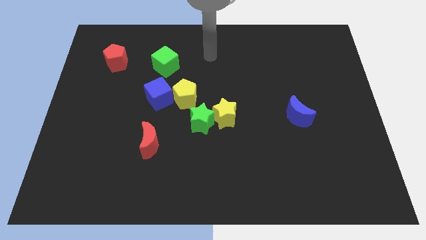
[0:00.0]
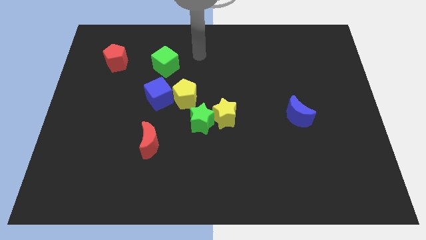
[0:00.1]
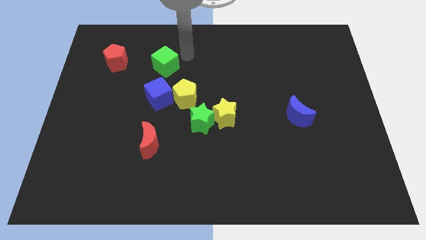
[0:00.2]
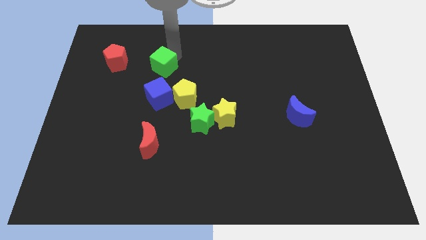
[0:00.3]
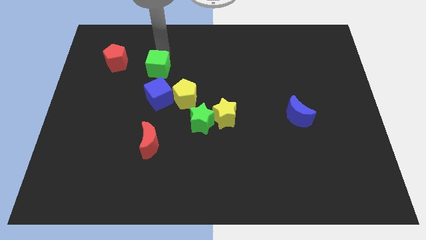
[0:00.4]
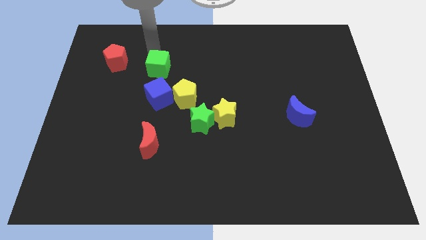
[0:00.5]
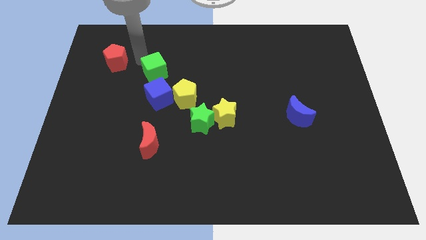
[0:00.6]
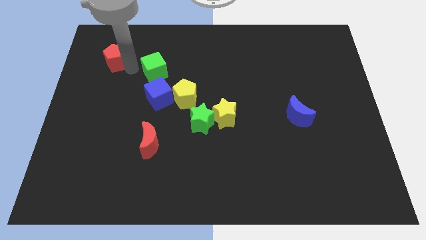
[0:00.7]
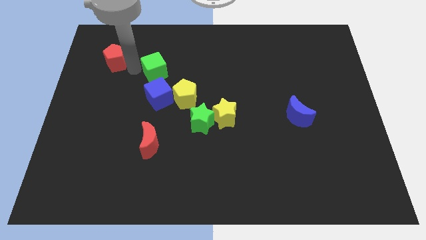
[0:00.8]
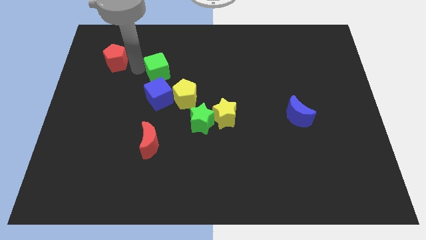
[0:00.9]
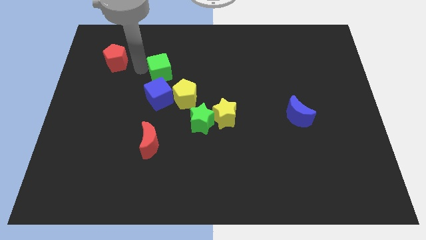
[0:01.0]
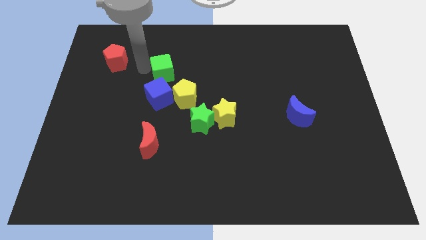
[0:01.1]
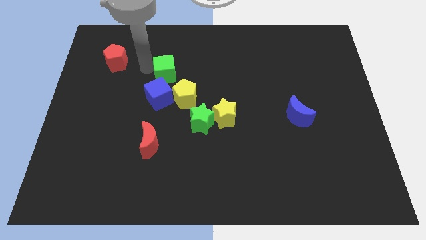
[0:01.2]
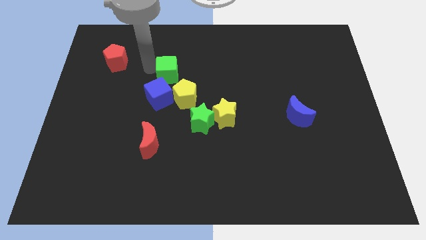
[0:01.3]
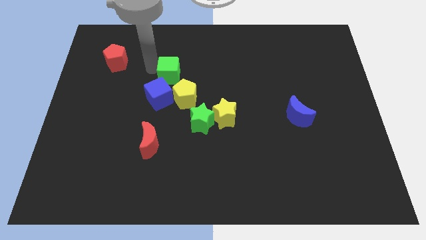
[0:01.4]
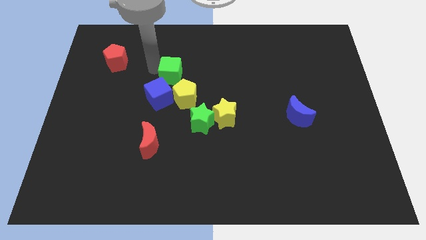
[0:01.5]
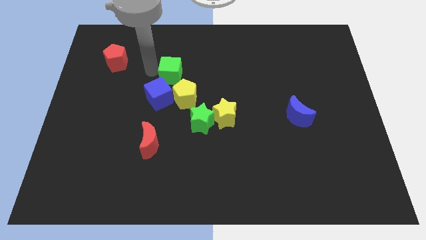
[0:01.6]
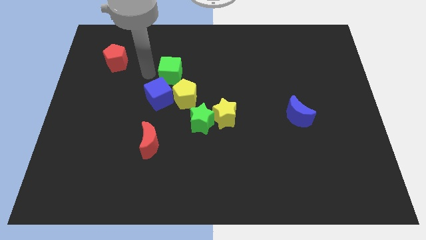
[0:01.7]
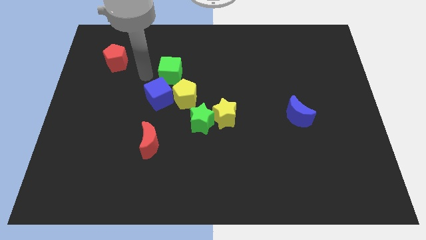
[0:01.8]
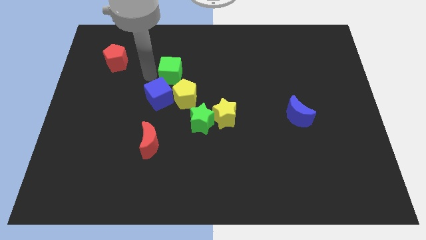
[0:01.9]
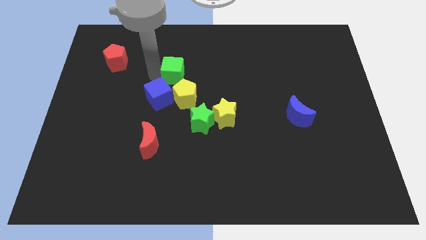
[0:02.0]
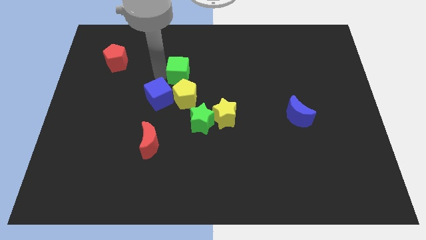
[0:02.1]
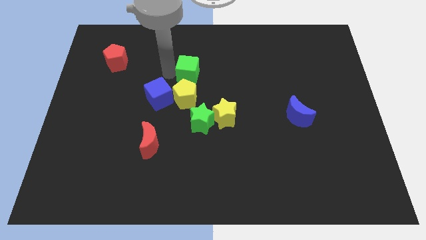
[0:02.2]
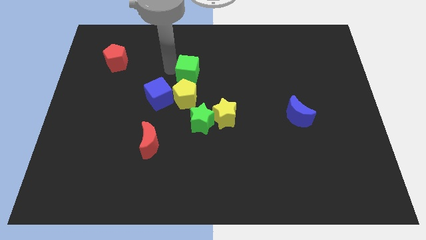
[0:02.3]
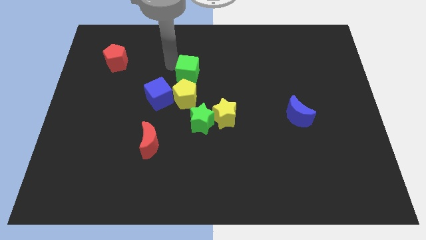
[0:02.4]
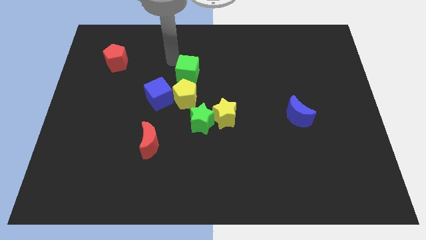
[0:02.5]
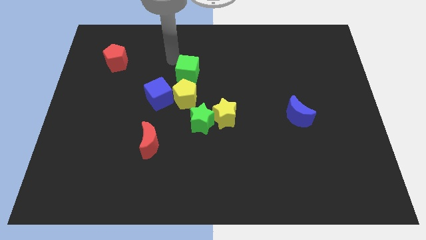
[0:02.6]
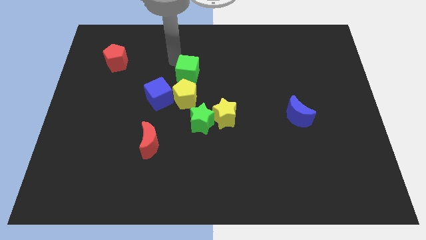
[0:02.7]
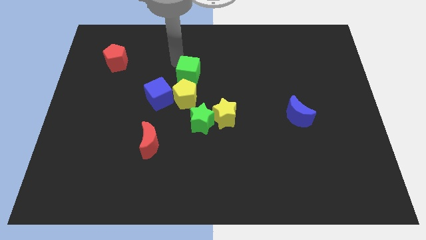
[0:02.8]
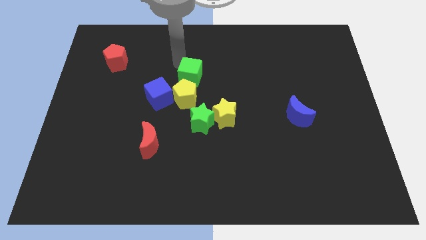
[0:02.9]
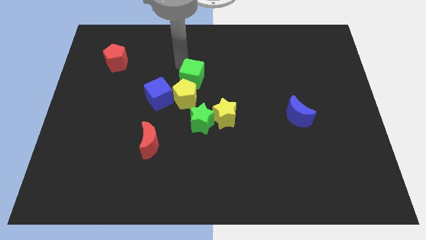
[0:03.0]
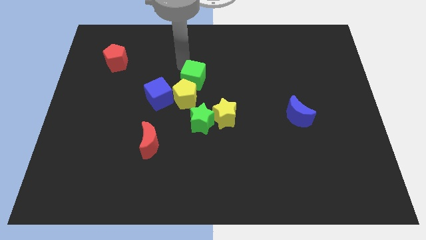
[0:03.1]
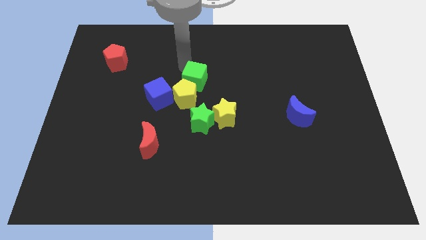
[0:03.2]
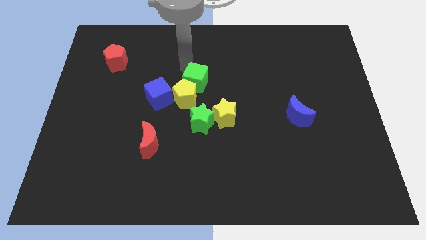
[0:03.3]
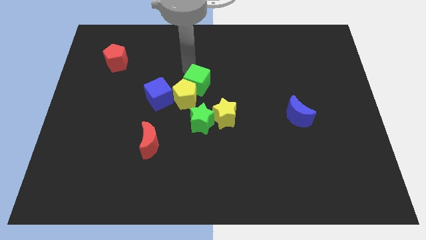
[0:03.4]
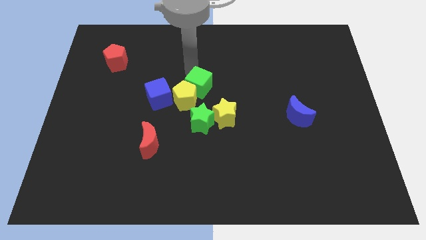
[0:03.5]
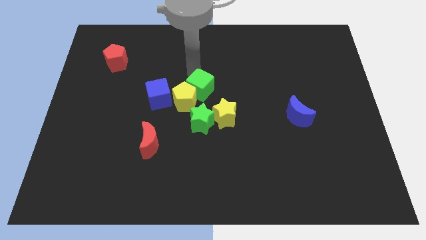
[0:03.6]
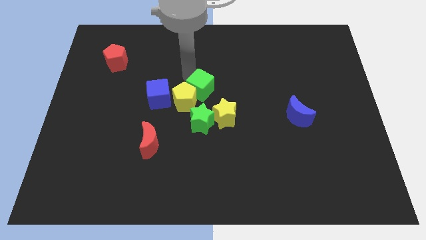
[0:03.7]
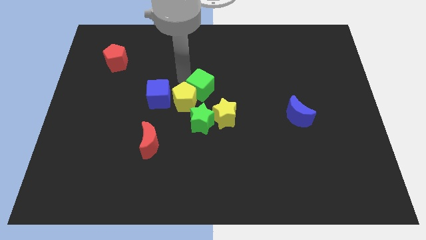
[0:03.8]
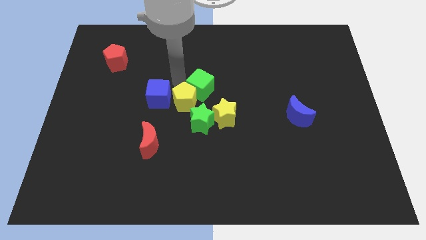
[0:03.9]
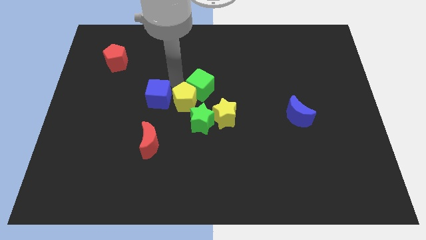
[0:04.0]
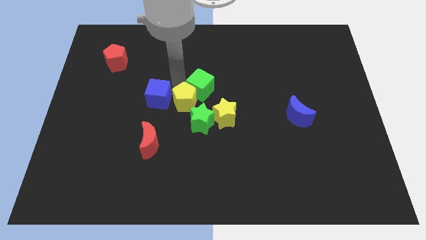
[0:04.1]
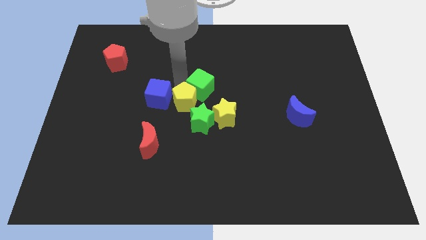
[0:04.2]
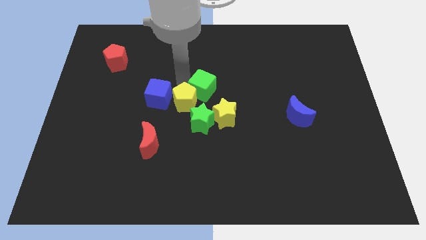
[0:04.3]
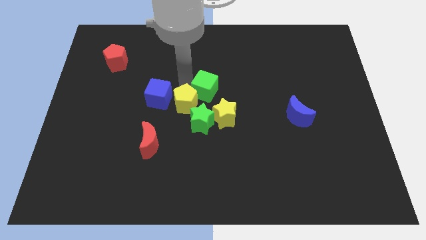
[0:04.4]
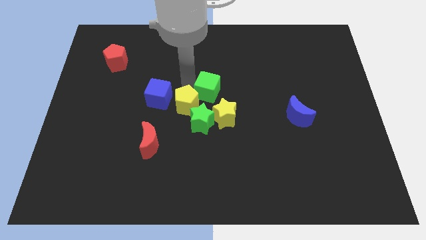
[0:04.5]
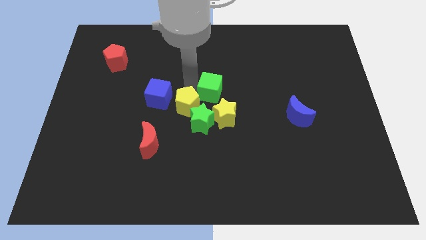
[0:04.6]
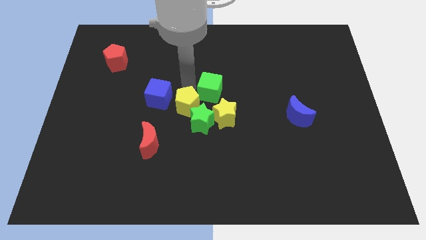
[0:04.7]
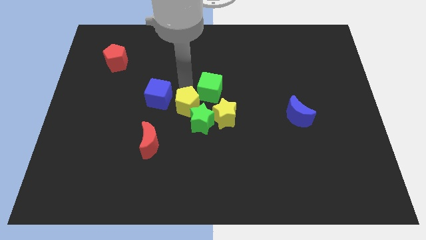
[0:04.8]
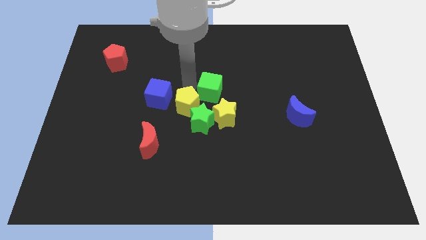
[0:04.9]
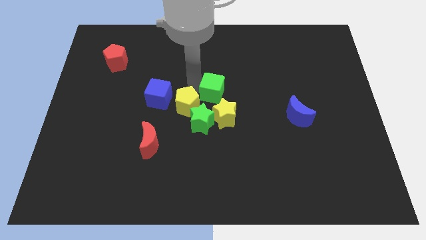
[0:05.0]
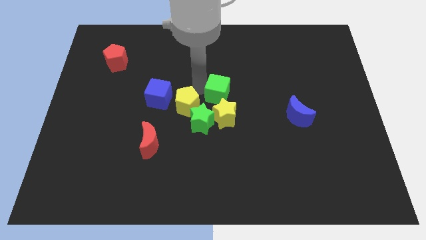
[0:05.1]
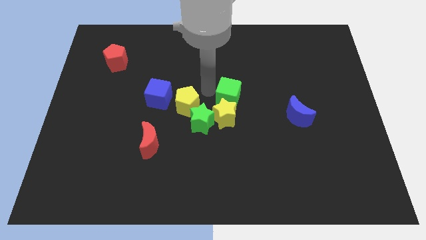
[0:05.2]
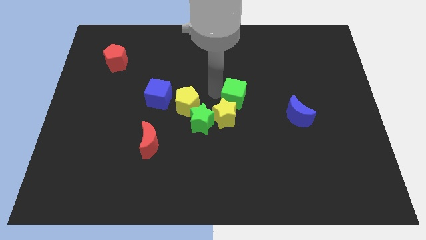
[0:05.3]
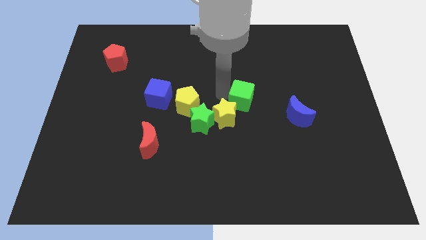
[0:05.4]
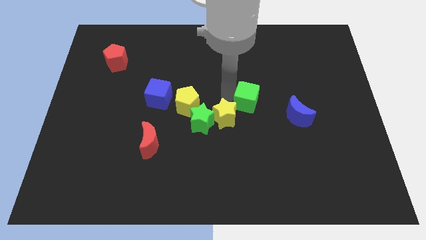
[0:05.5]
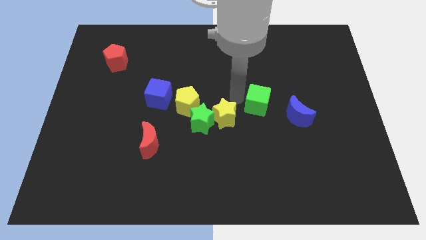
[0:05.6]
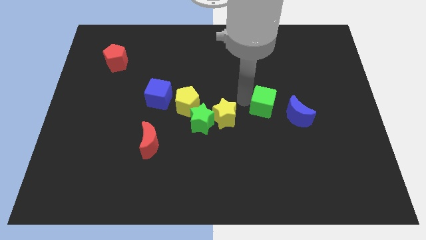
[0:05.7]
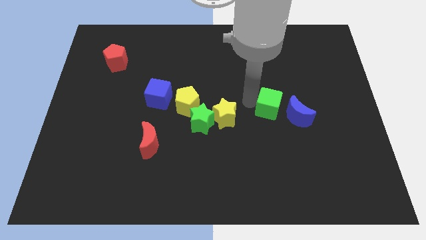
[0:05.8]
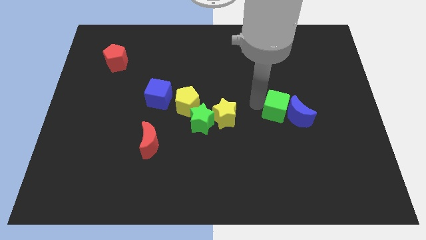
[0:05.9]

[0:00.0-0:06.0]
push the green cube to the blue moon

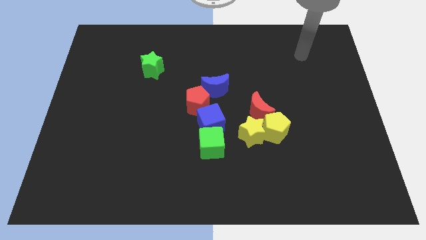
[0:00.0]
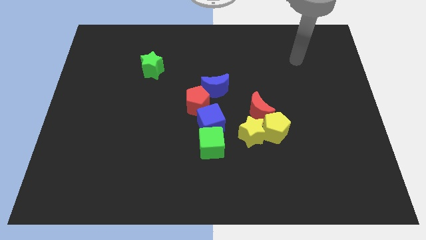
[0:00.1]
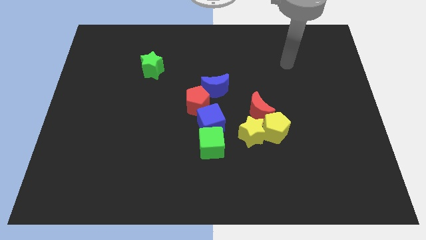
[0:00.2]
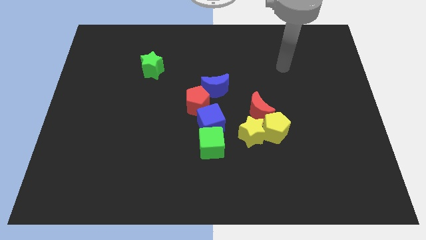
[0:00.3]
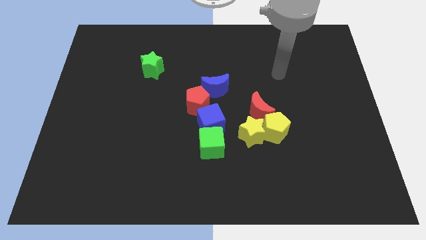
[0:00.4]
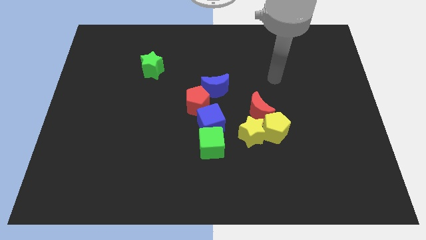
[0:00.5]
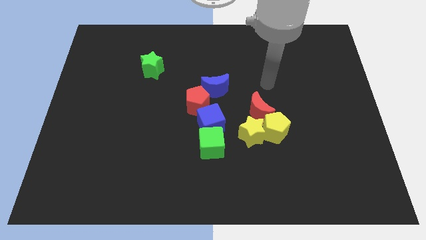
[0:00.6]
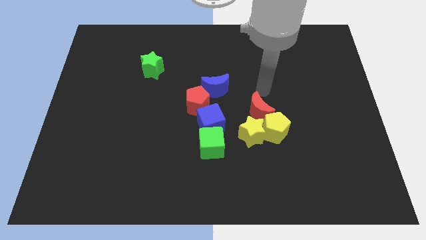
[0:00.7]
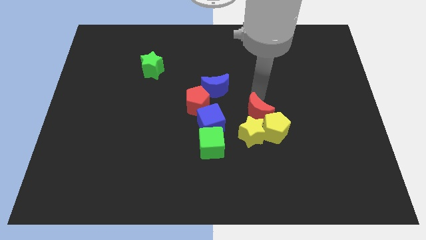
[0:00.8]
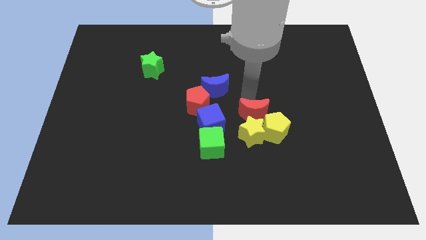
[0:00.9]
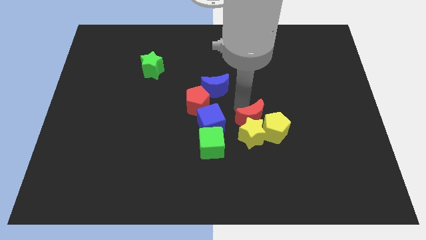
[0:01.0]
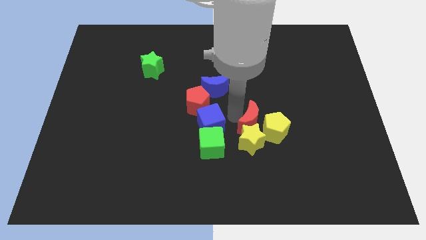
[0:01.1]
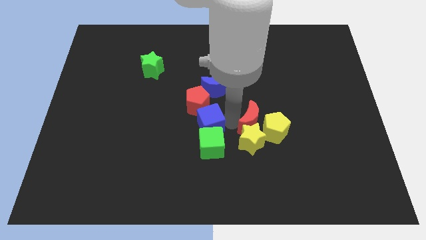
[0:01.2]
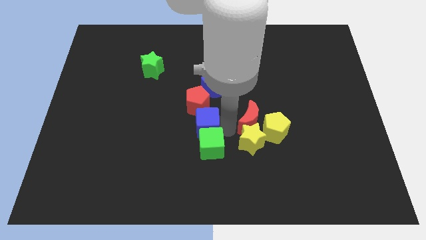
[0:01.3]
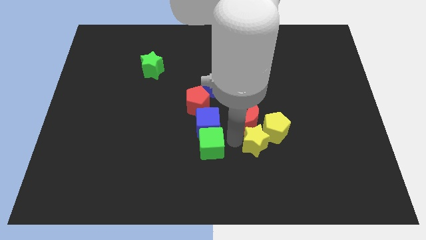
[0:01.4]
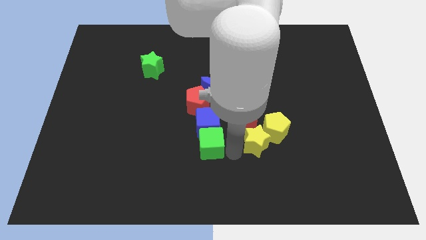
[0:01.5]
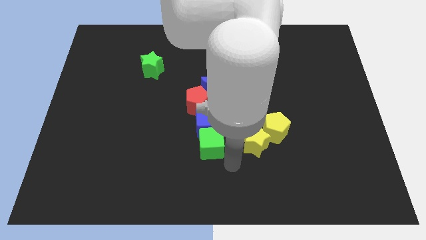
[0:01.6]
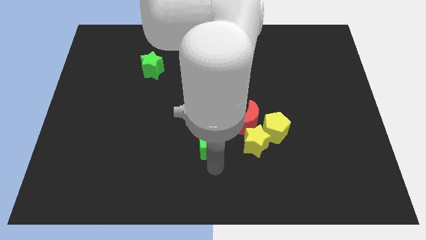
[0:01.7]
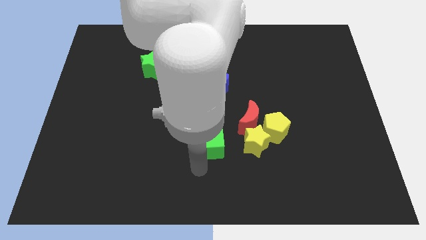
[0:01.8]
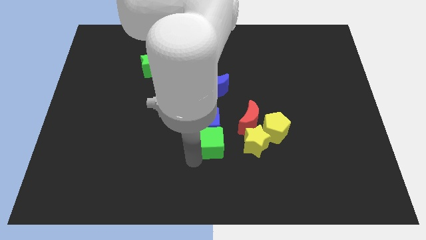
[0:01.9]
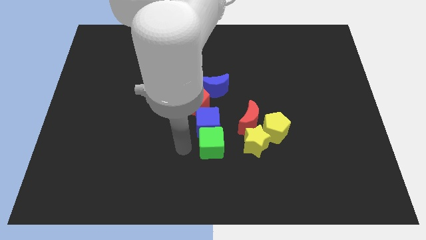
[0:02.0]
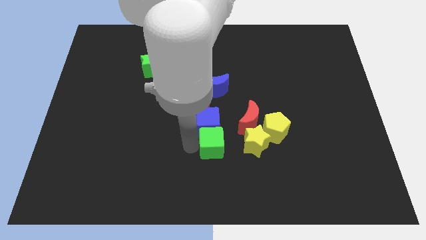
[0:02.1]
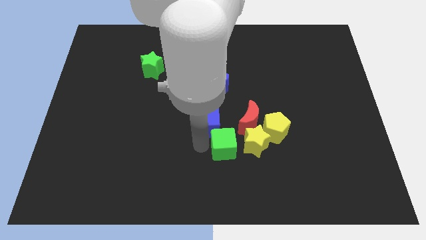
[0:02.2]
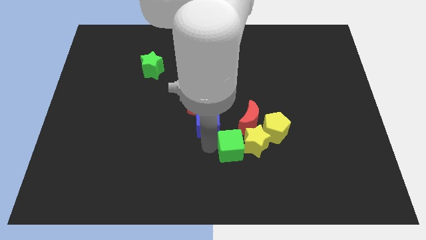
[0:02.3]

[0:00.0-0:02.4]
slide the green cube to the yellow star
